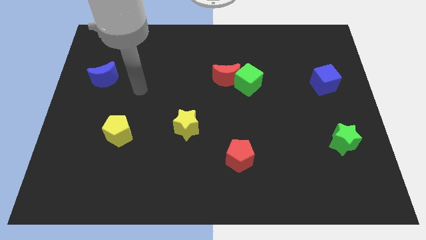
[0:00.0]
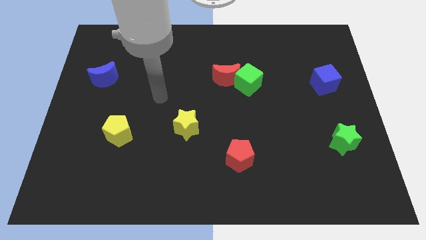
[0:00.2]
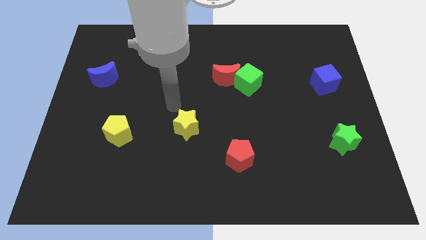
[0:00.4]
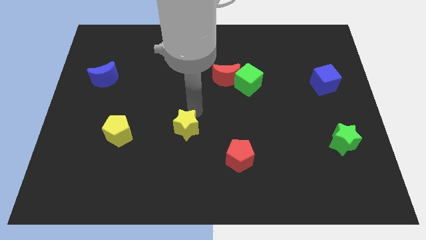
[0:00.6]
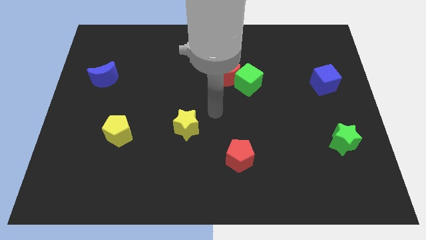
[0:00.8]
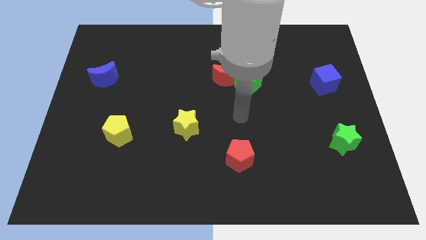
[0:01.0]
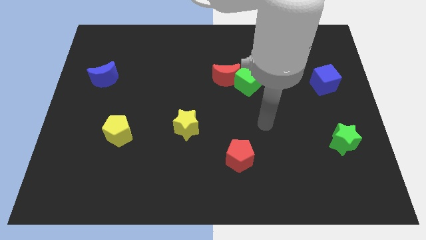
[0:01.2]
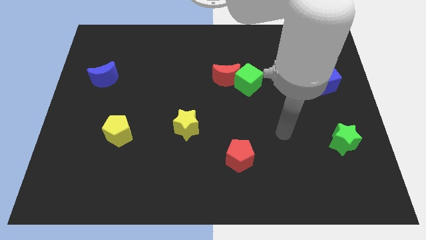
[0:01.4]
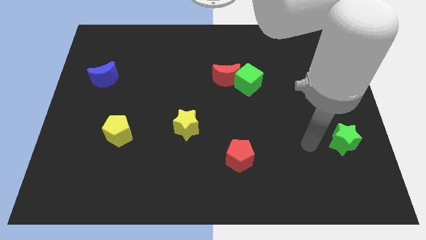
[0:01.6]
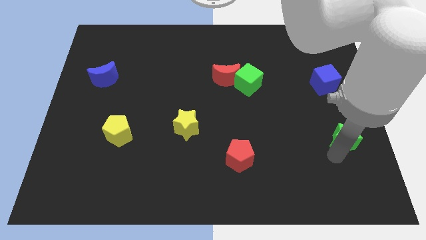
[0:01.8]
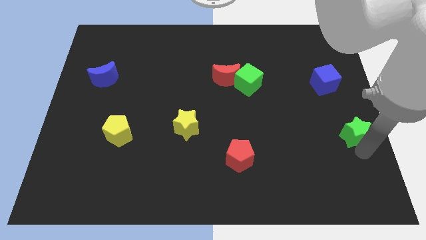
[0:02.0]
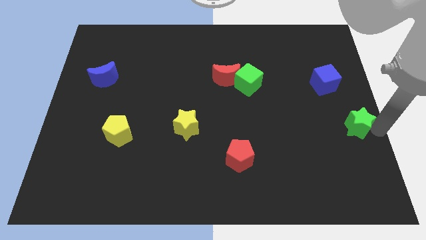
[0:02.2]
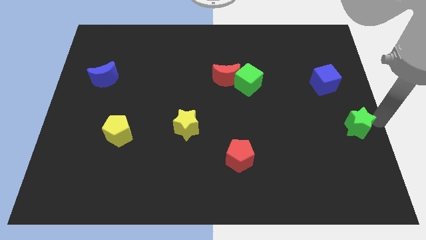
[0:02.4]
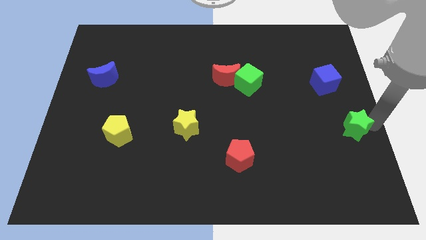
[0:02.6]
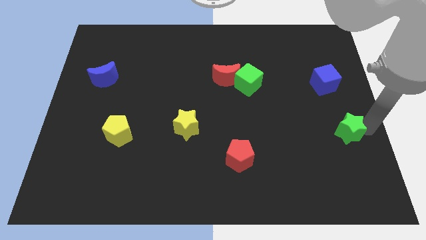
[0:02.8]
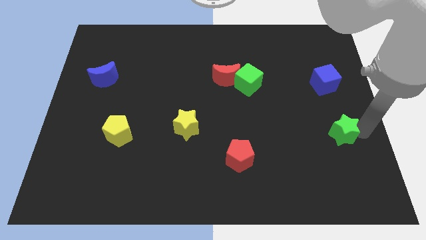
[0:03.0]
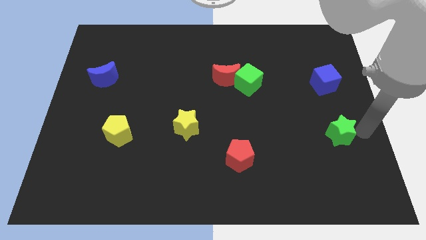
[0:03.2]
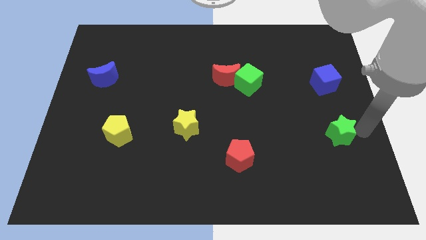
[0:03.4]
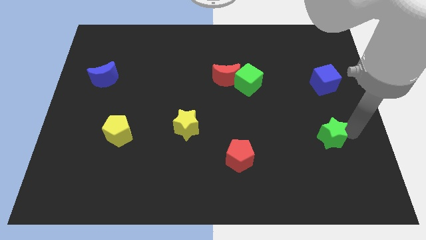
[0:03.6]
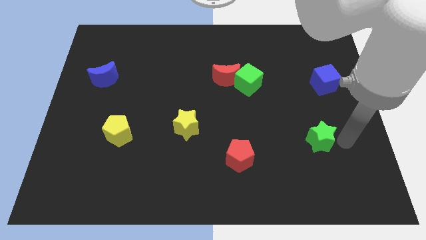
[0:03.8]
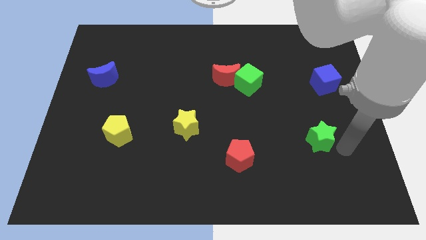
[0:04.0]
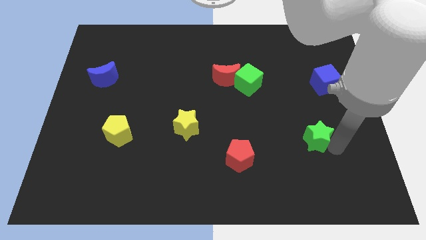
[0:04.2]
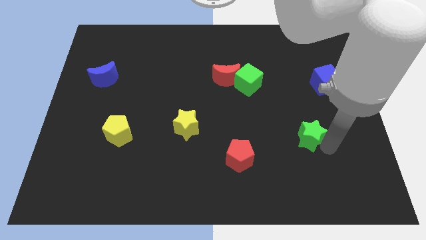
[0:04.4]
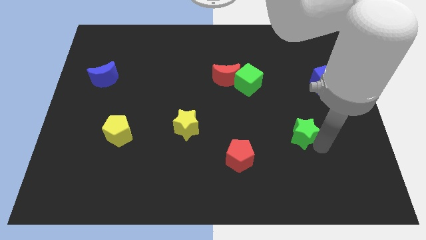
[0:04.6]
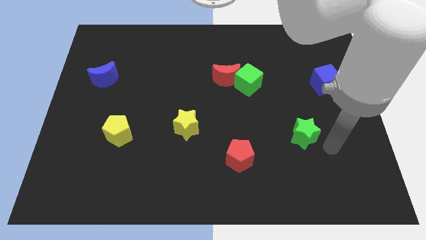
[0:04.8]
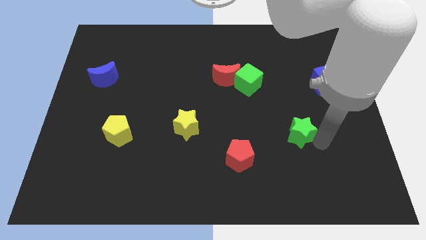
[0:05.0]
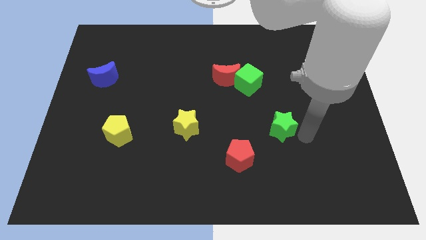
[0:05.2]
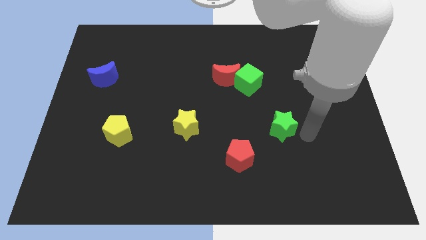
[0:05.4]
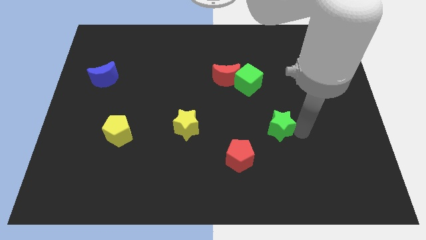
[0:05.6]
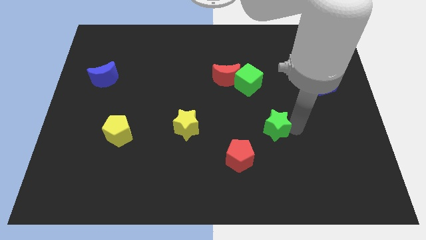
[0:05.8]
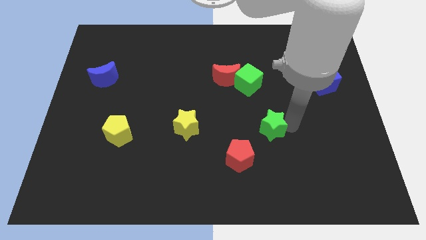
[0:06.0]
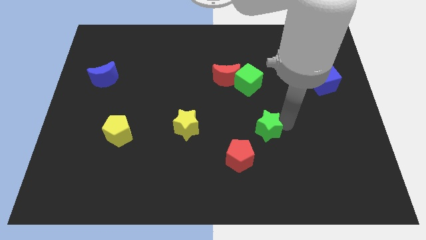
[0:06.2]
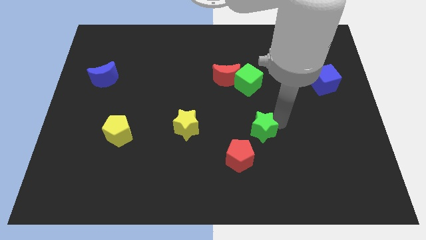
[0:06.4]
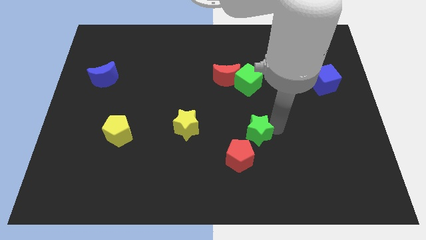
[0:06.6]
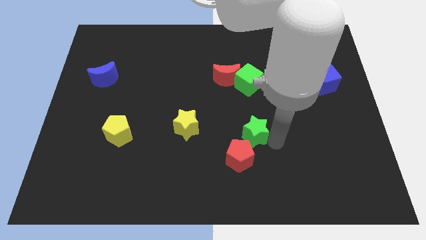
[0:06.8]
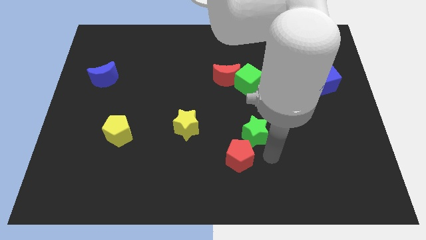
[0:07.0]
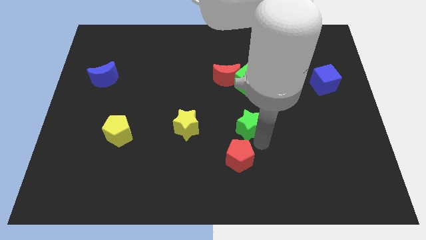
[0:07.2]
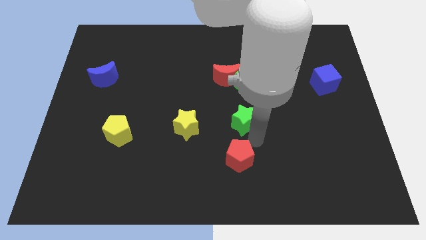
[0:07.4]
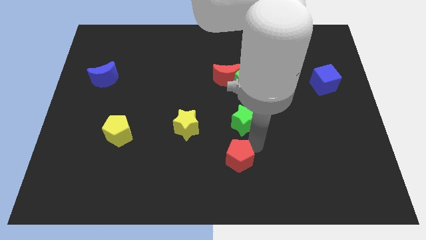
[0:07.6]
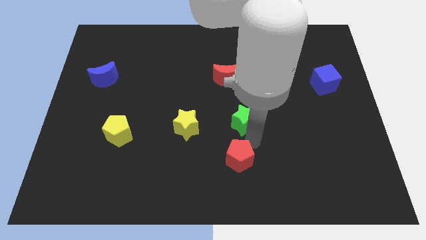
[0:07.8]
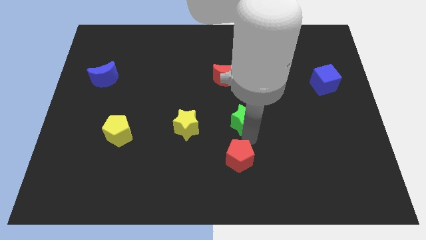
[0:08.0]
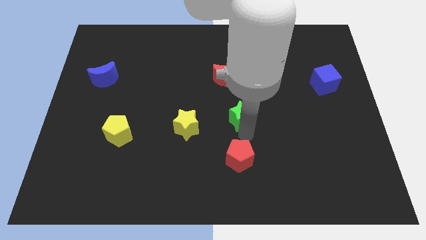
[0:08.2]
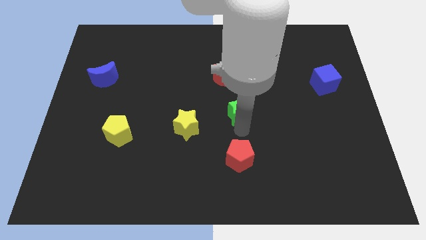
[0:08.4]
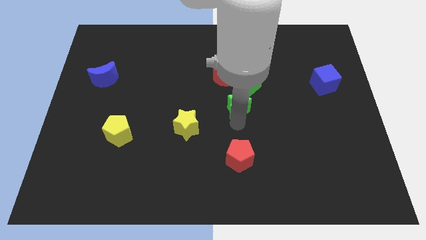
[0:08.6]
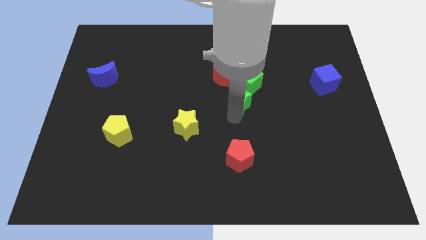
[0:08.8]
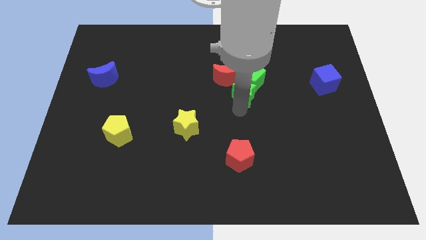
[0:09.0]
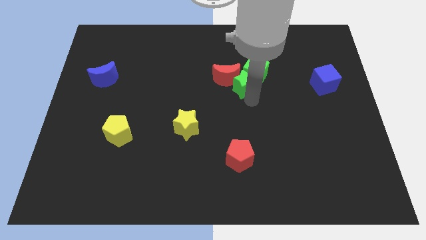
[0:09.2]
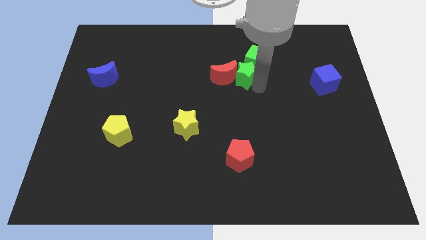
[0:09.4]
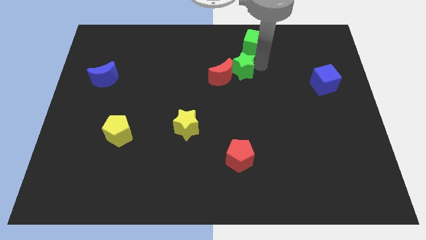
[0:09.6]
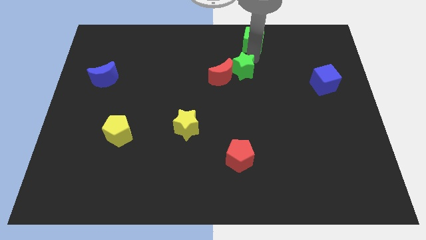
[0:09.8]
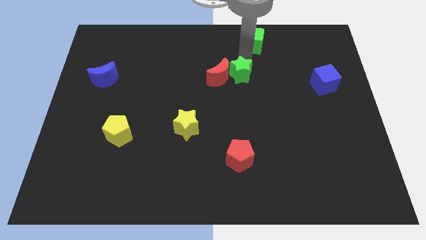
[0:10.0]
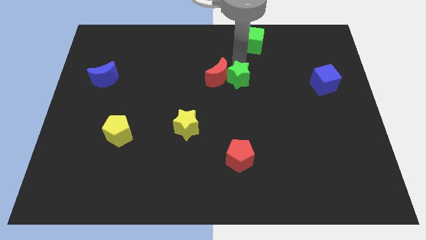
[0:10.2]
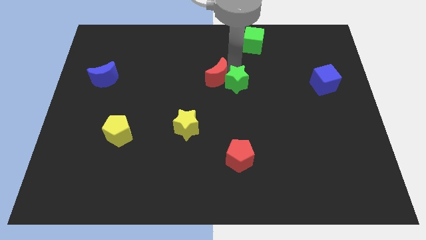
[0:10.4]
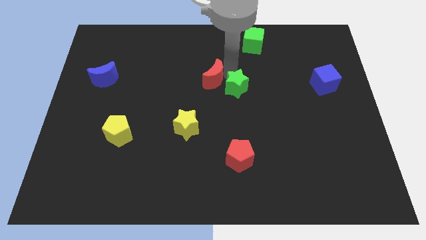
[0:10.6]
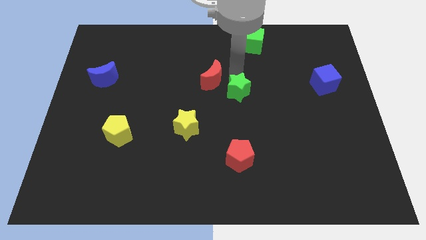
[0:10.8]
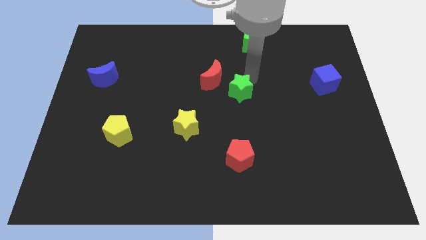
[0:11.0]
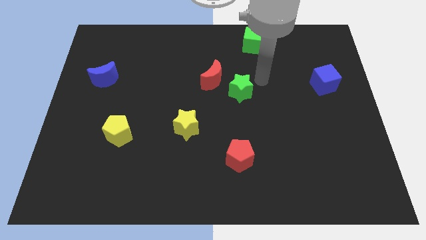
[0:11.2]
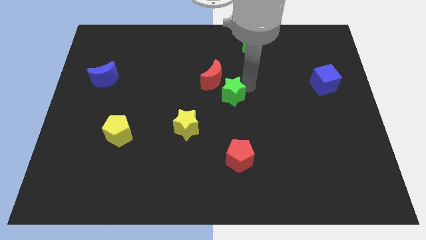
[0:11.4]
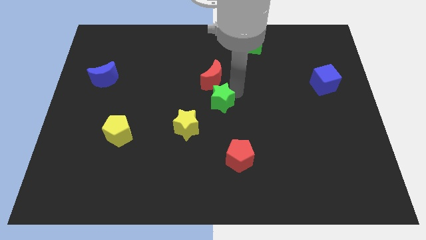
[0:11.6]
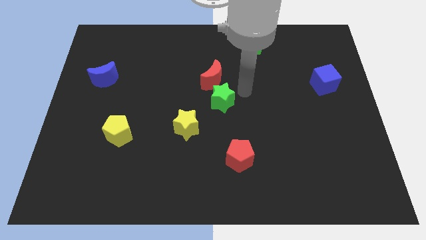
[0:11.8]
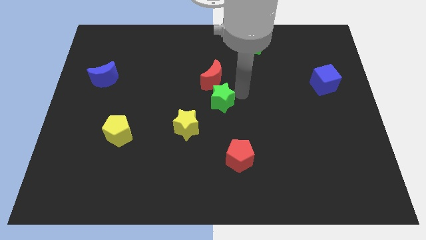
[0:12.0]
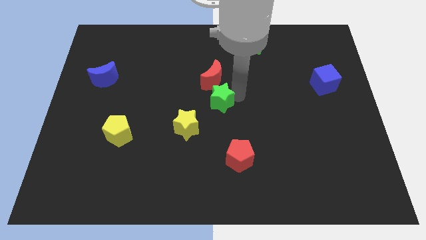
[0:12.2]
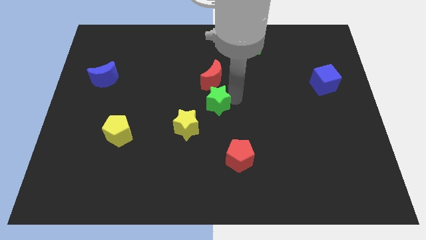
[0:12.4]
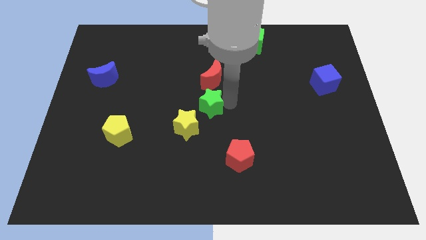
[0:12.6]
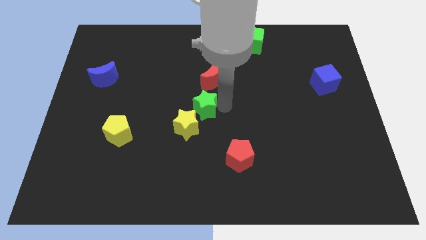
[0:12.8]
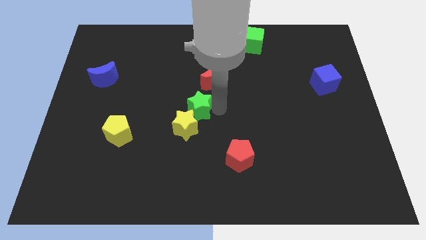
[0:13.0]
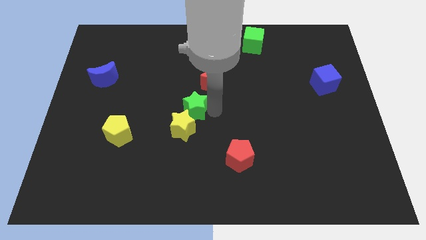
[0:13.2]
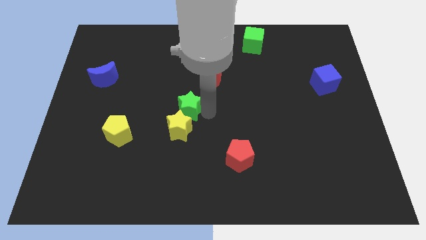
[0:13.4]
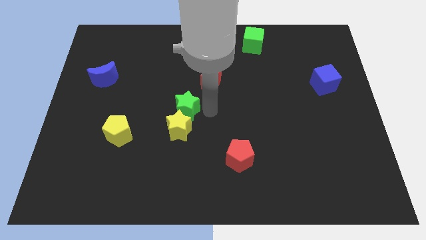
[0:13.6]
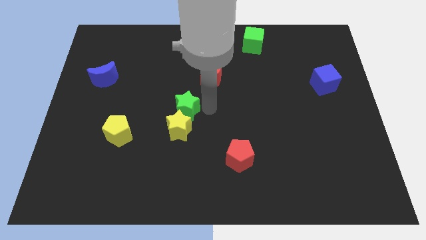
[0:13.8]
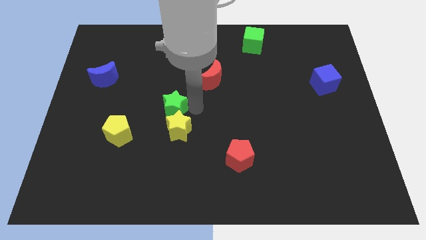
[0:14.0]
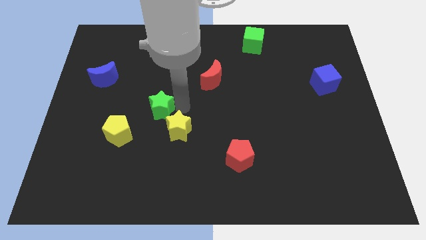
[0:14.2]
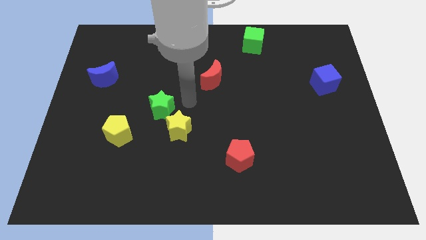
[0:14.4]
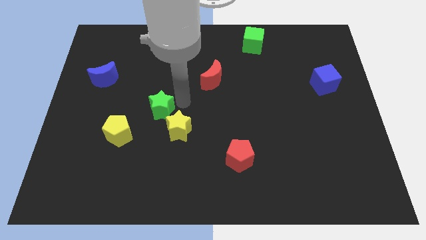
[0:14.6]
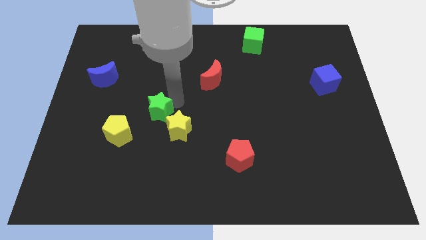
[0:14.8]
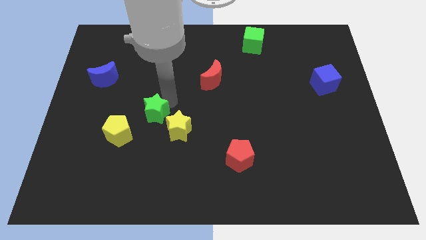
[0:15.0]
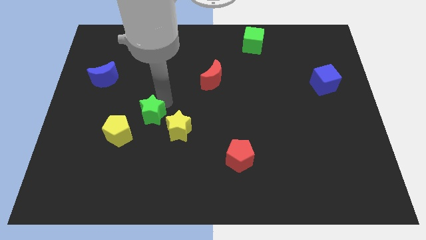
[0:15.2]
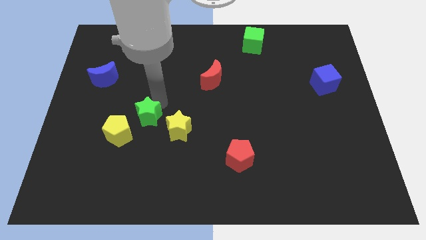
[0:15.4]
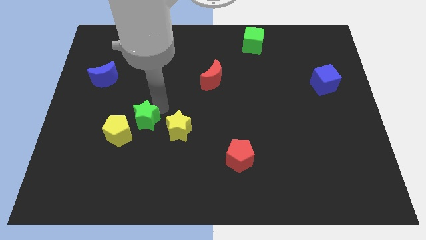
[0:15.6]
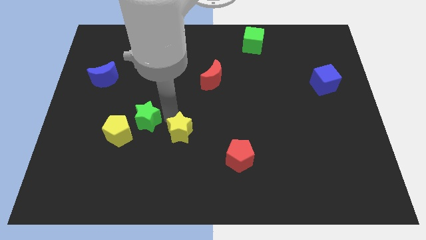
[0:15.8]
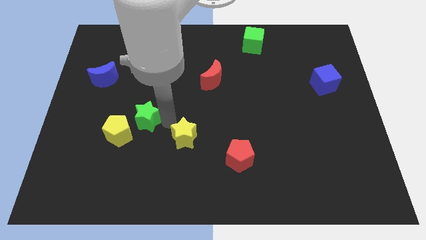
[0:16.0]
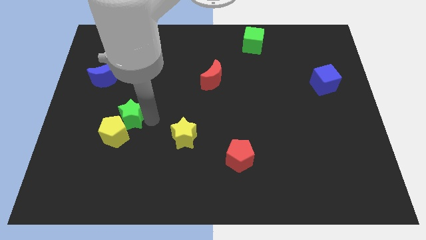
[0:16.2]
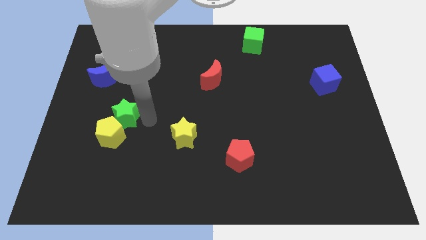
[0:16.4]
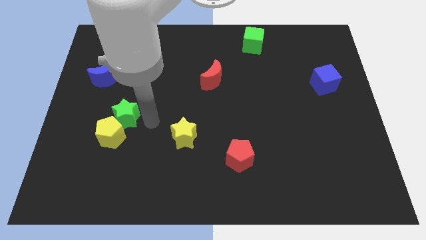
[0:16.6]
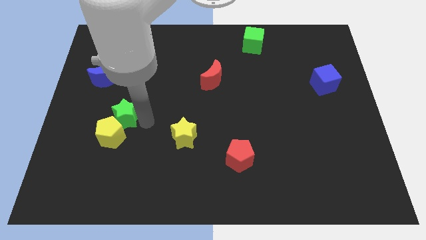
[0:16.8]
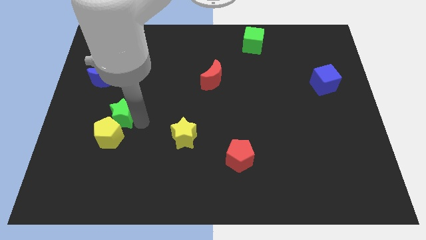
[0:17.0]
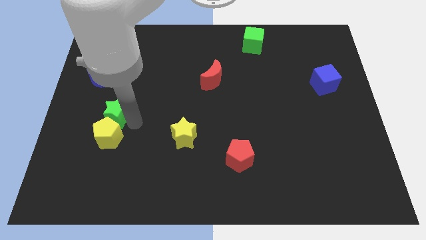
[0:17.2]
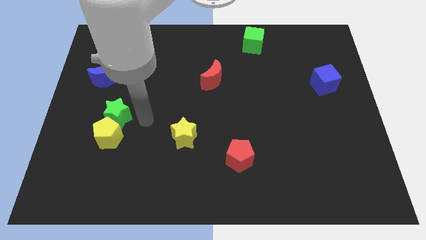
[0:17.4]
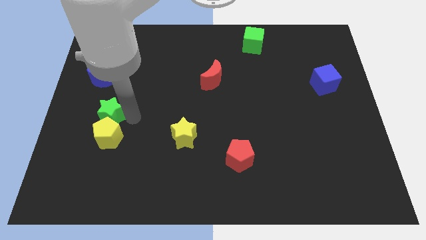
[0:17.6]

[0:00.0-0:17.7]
slide the green star below the blue moon
